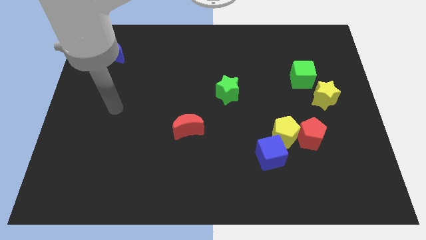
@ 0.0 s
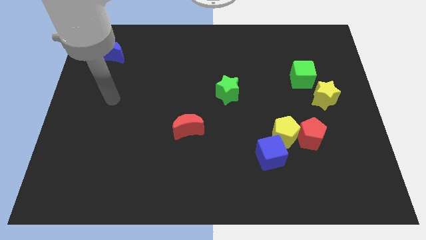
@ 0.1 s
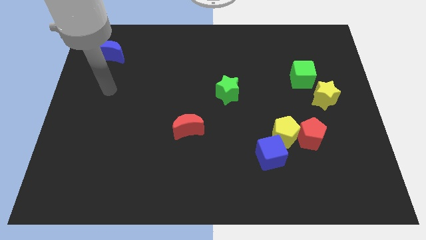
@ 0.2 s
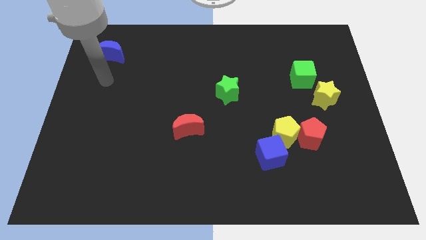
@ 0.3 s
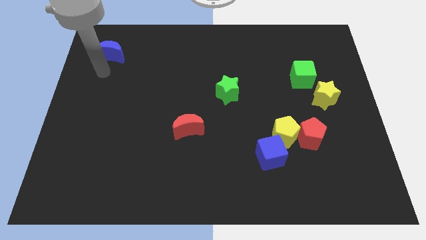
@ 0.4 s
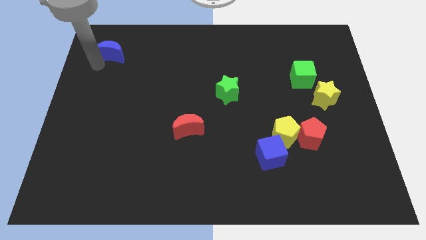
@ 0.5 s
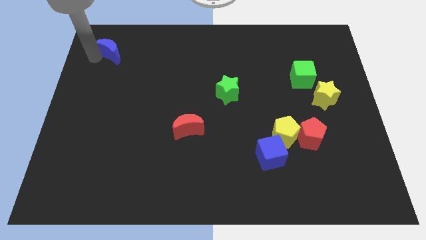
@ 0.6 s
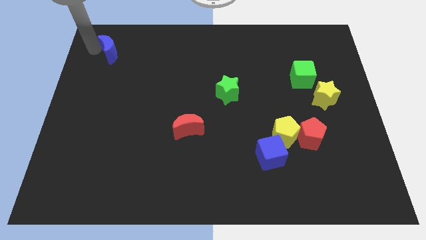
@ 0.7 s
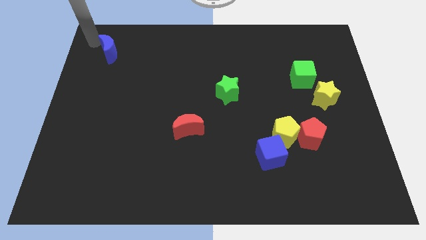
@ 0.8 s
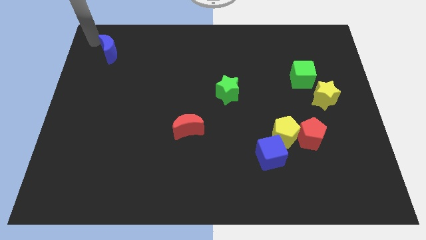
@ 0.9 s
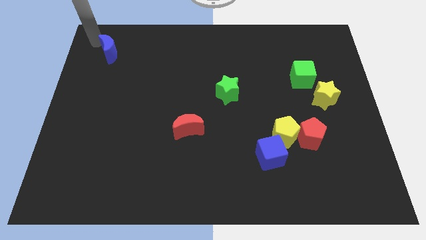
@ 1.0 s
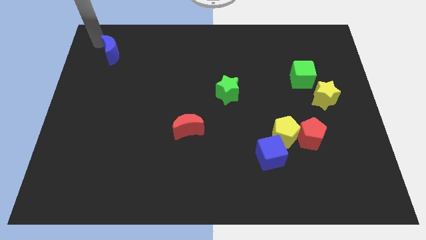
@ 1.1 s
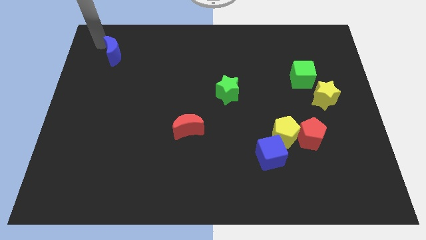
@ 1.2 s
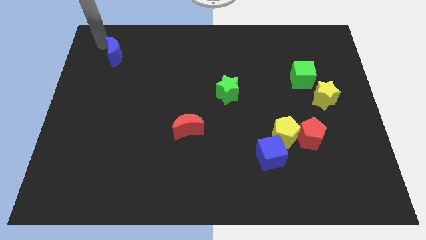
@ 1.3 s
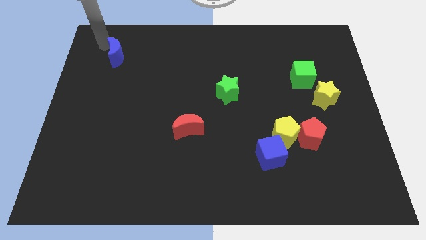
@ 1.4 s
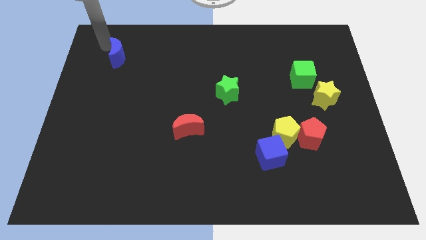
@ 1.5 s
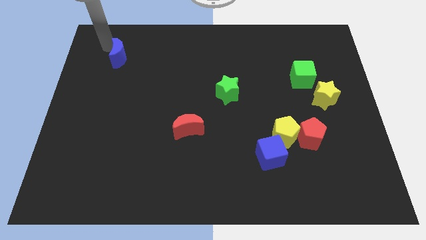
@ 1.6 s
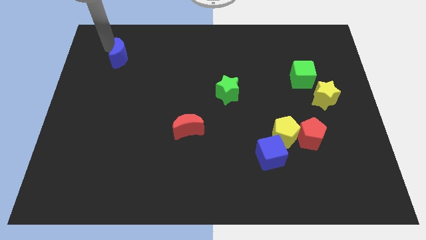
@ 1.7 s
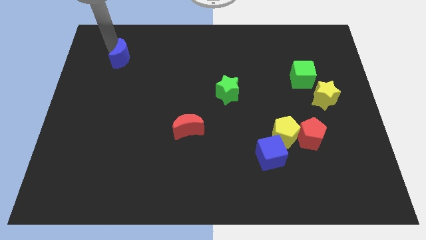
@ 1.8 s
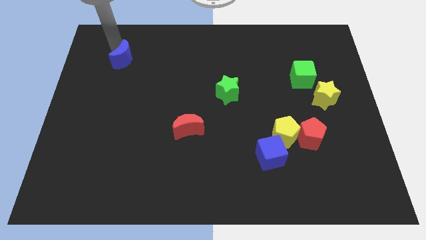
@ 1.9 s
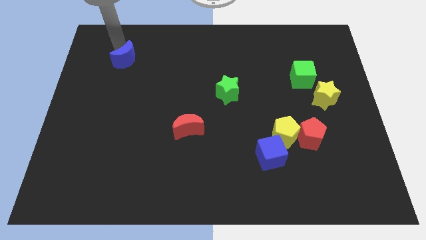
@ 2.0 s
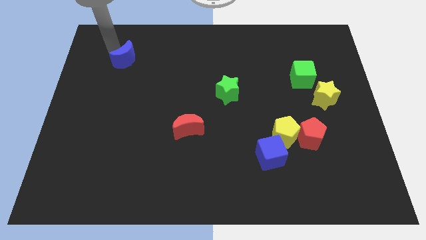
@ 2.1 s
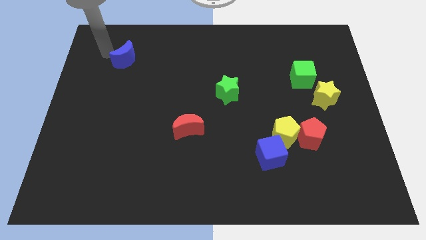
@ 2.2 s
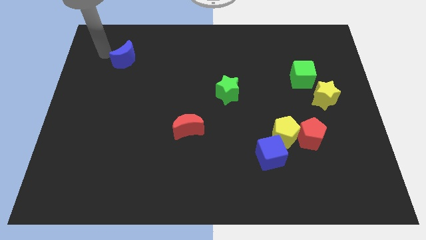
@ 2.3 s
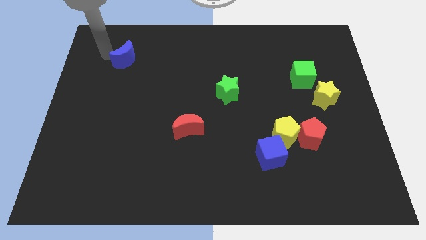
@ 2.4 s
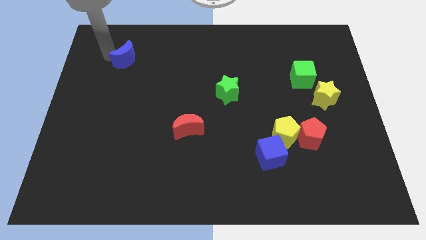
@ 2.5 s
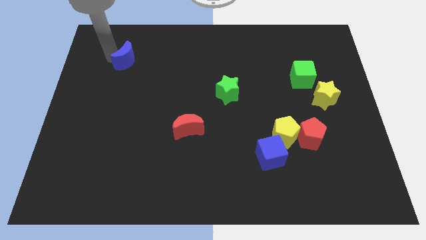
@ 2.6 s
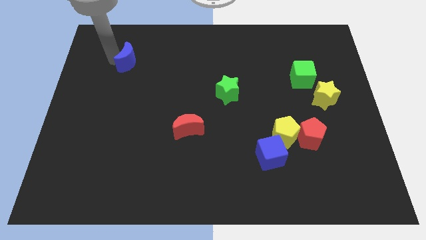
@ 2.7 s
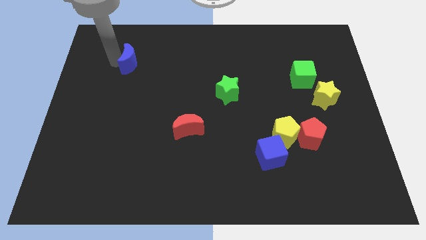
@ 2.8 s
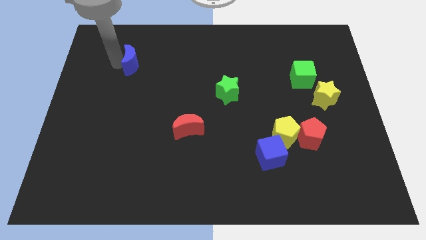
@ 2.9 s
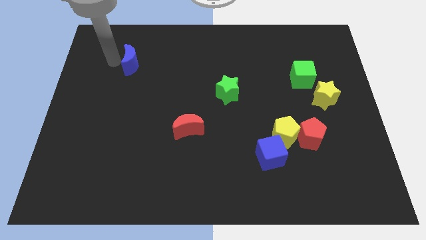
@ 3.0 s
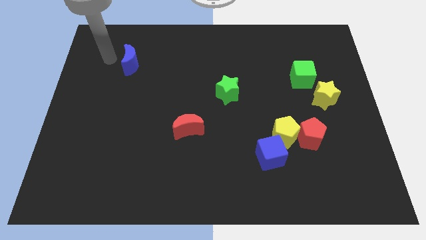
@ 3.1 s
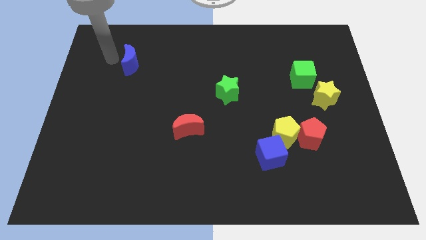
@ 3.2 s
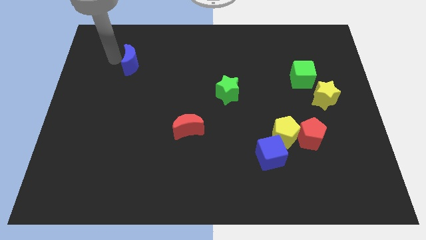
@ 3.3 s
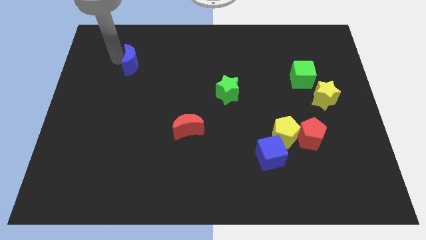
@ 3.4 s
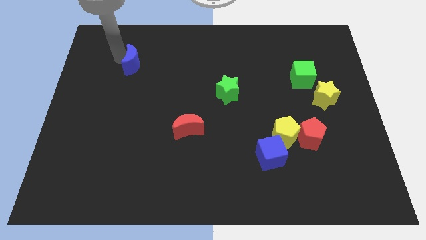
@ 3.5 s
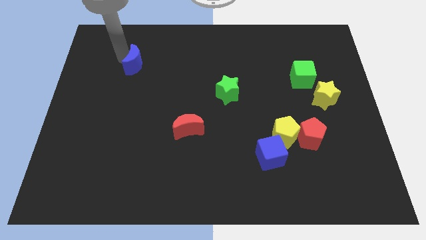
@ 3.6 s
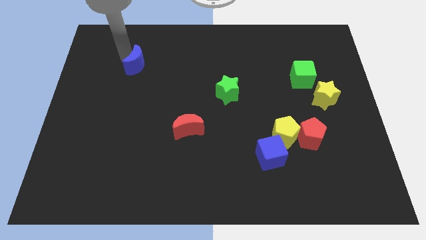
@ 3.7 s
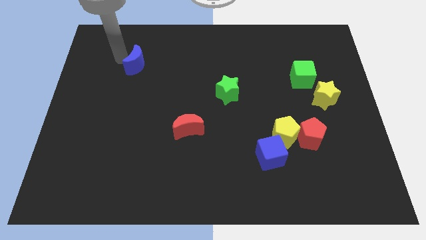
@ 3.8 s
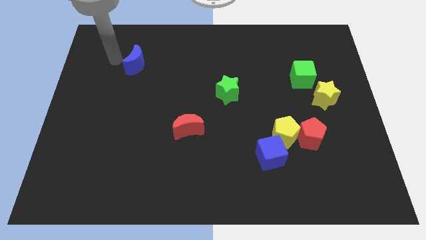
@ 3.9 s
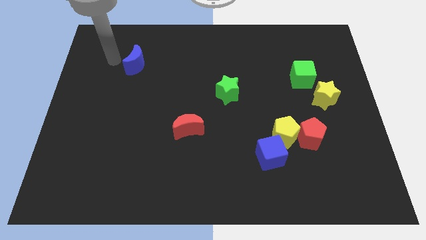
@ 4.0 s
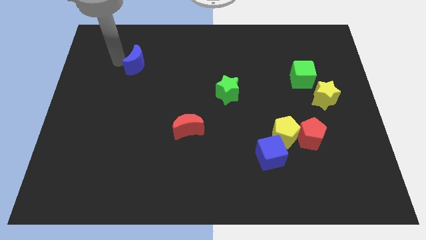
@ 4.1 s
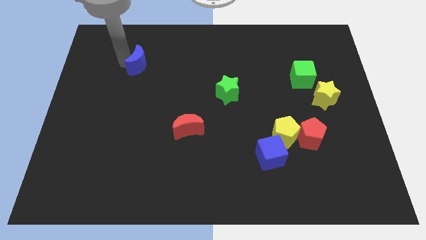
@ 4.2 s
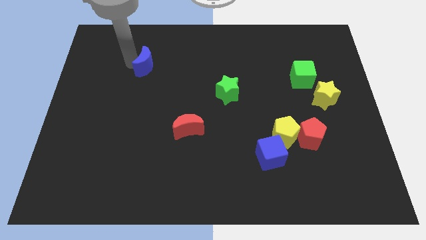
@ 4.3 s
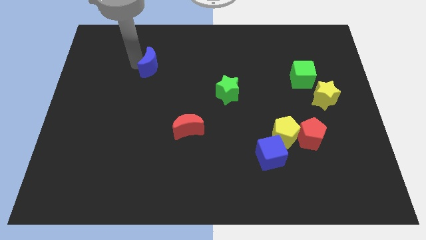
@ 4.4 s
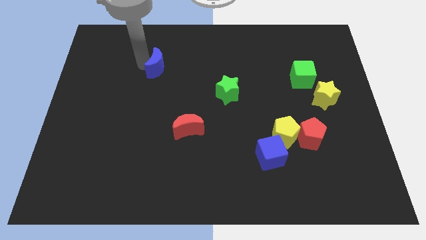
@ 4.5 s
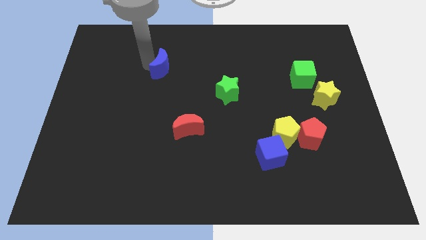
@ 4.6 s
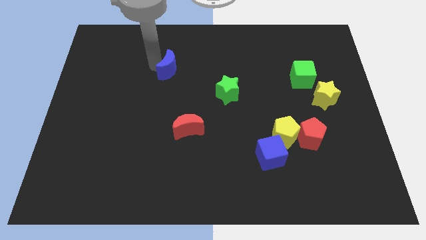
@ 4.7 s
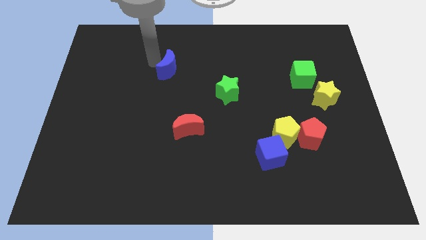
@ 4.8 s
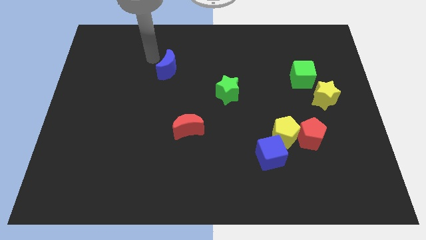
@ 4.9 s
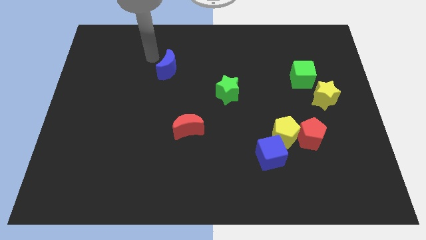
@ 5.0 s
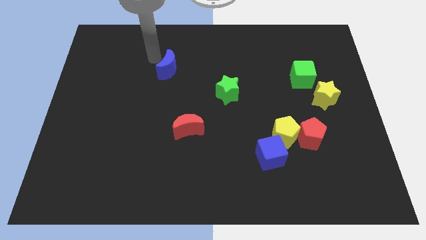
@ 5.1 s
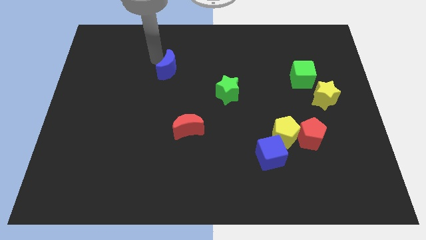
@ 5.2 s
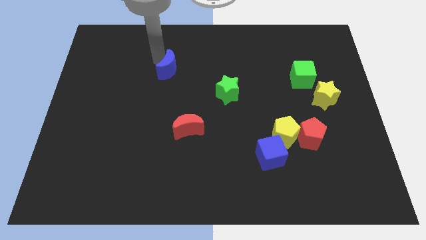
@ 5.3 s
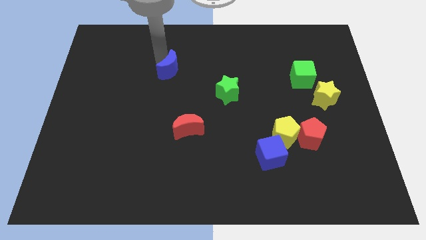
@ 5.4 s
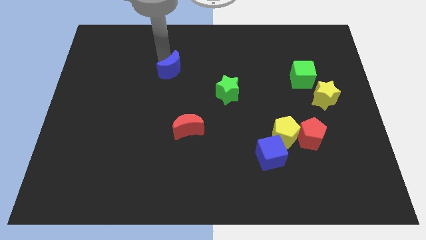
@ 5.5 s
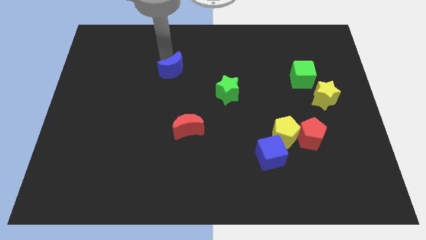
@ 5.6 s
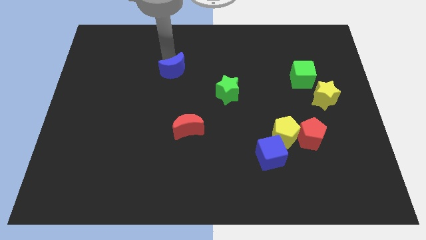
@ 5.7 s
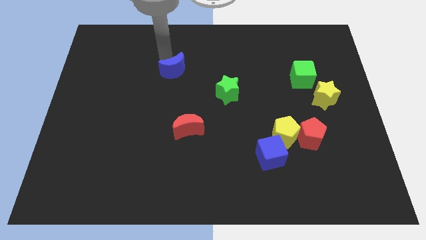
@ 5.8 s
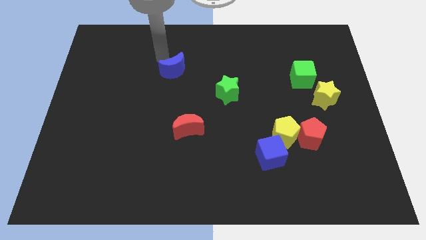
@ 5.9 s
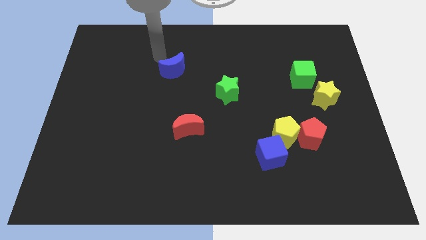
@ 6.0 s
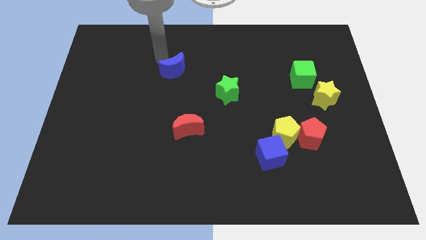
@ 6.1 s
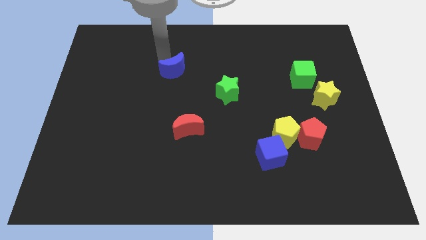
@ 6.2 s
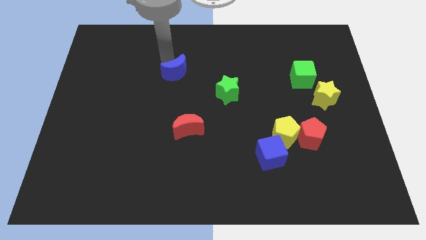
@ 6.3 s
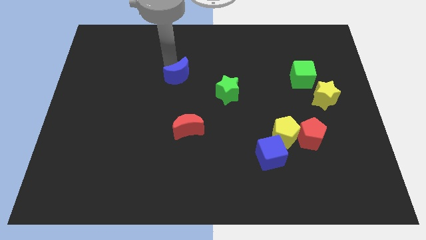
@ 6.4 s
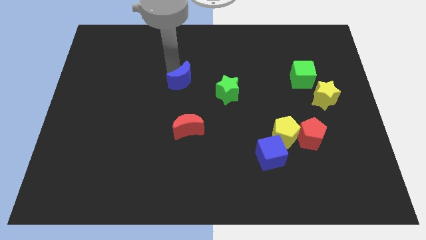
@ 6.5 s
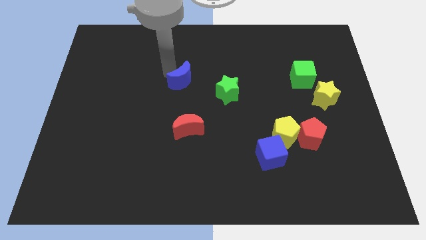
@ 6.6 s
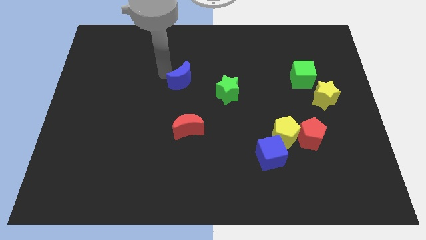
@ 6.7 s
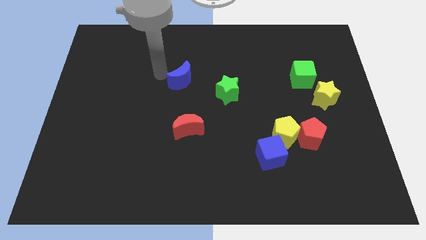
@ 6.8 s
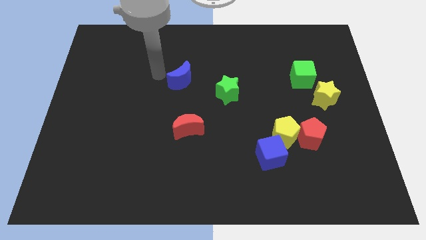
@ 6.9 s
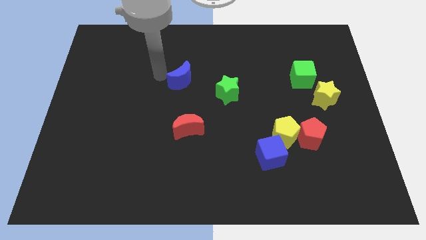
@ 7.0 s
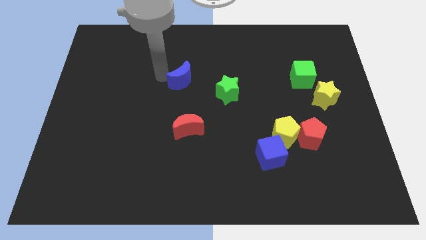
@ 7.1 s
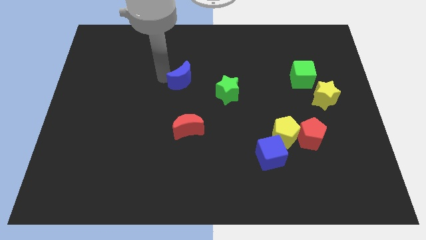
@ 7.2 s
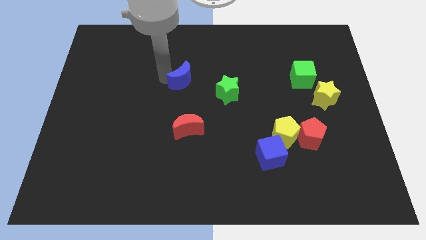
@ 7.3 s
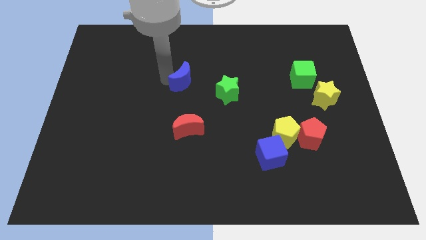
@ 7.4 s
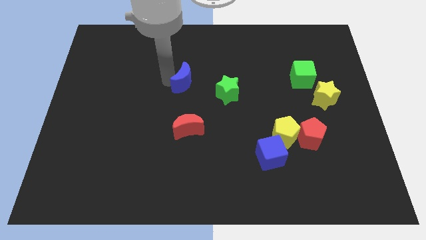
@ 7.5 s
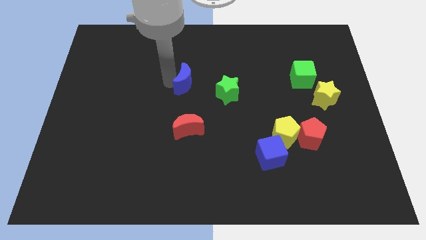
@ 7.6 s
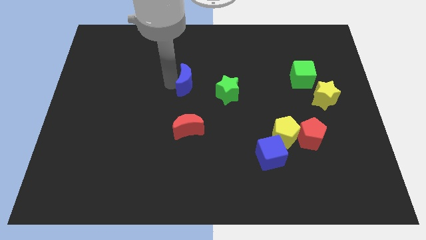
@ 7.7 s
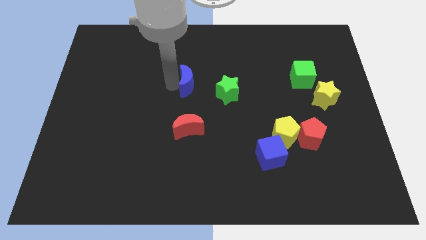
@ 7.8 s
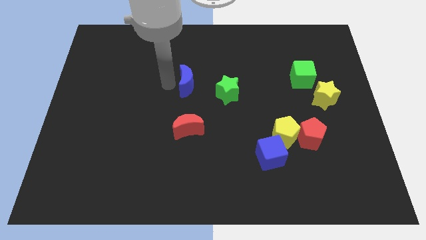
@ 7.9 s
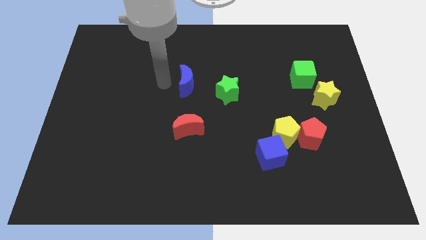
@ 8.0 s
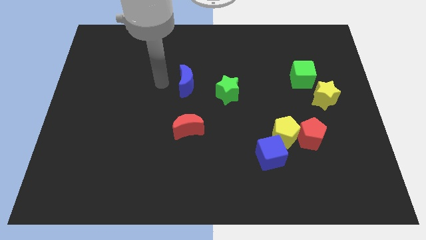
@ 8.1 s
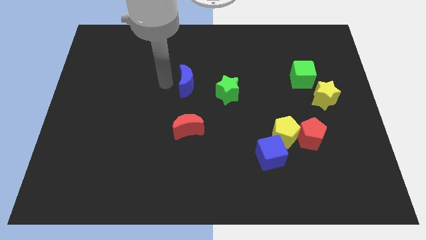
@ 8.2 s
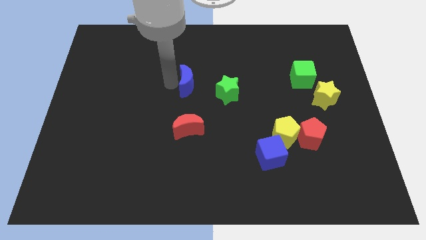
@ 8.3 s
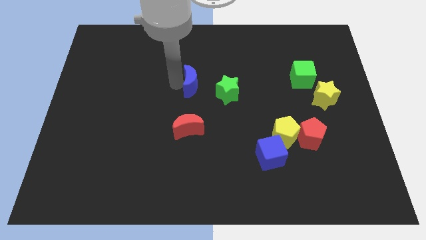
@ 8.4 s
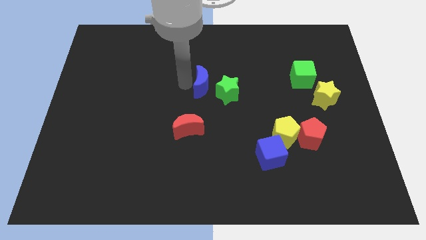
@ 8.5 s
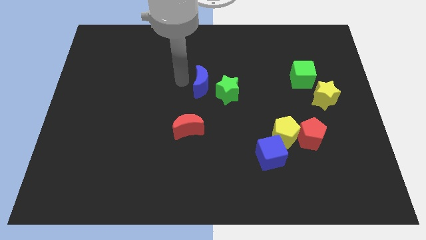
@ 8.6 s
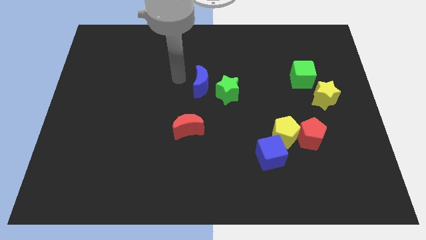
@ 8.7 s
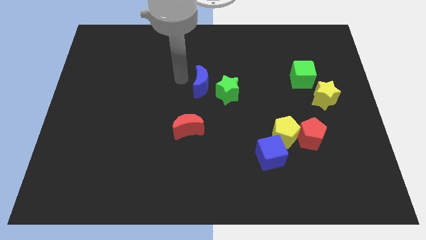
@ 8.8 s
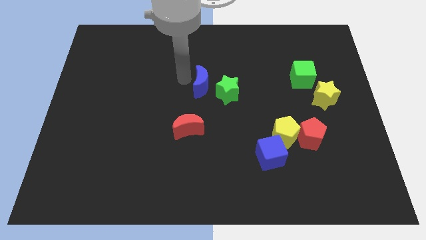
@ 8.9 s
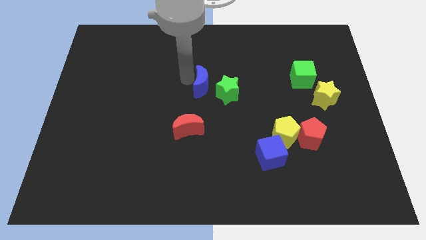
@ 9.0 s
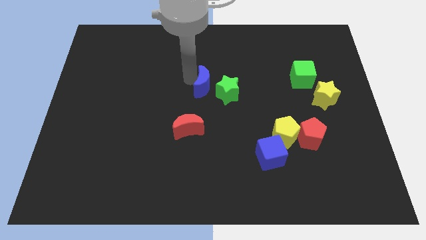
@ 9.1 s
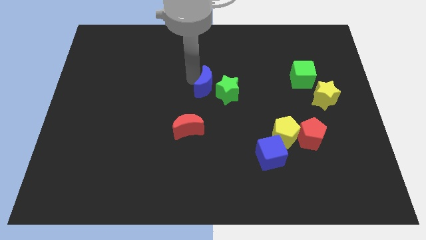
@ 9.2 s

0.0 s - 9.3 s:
move the blue moon next to the green star
